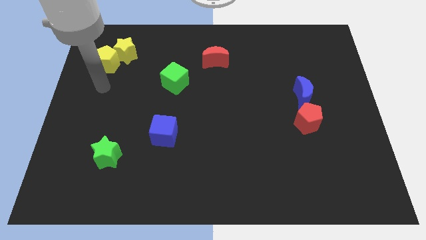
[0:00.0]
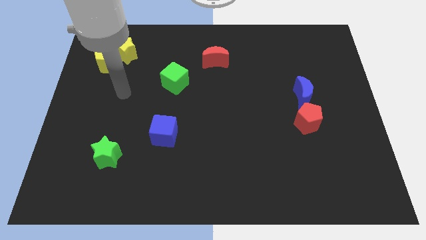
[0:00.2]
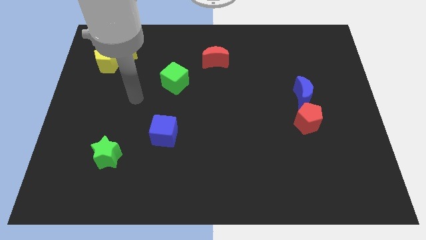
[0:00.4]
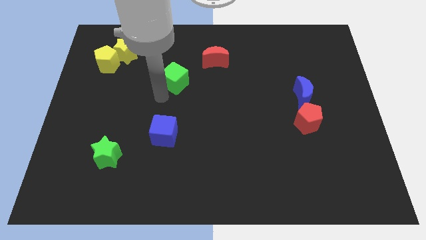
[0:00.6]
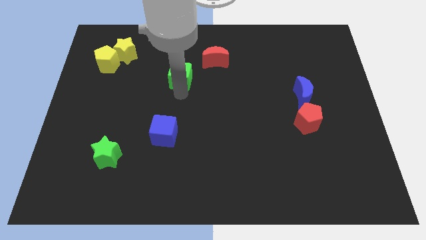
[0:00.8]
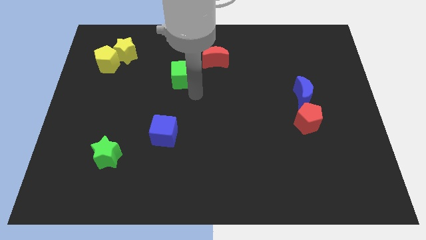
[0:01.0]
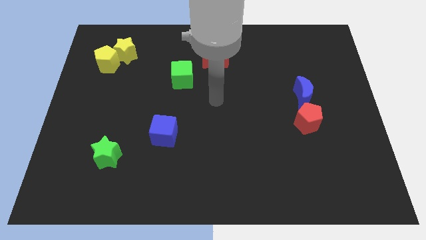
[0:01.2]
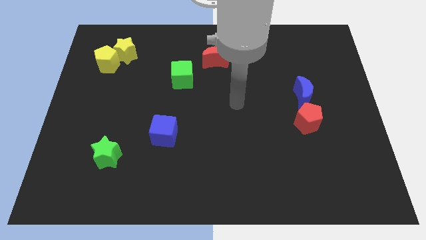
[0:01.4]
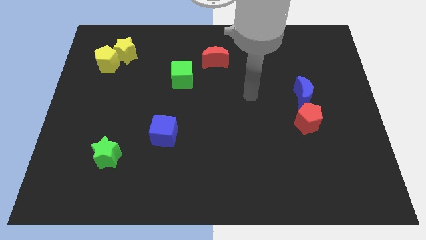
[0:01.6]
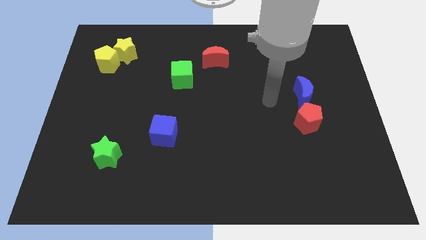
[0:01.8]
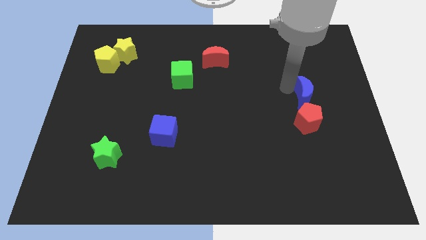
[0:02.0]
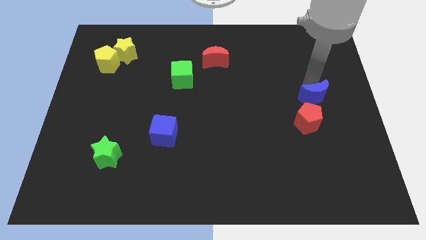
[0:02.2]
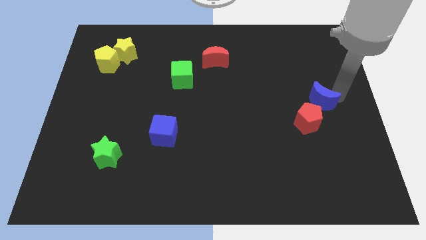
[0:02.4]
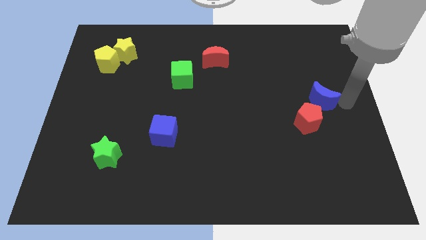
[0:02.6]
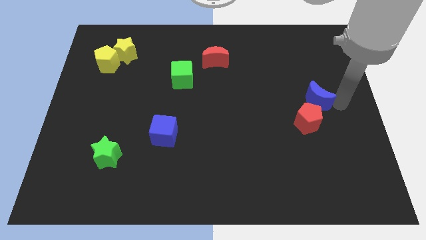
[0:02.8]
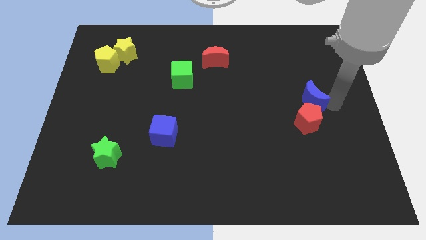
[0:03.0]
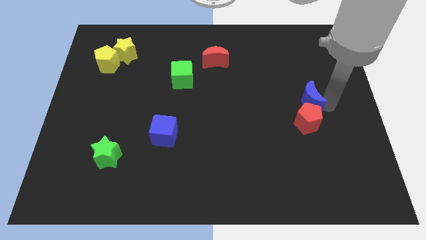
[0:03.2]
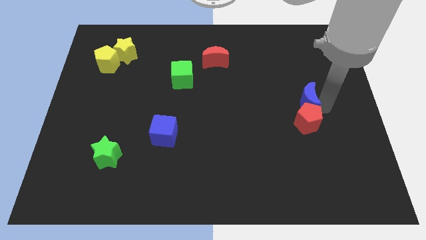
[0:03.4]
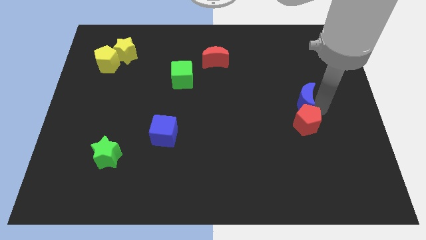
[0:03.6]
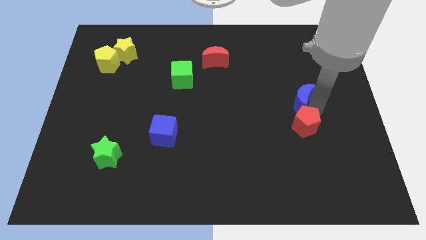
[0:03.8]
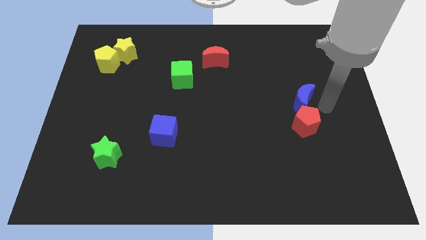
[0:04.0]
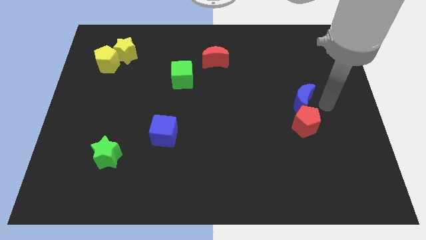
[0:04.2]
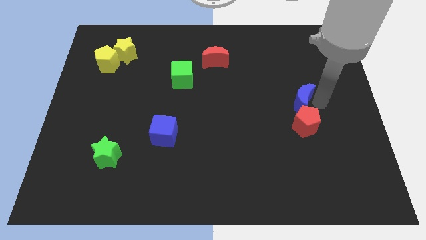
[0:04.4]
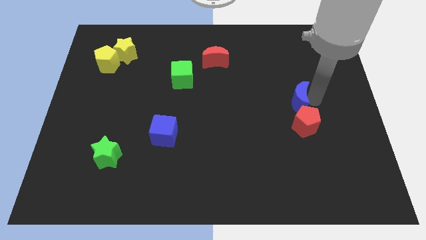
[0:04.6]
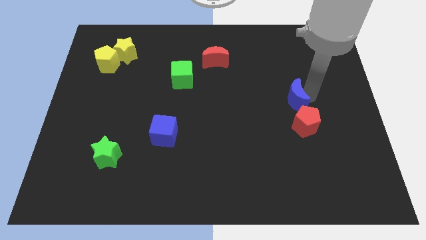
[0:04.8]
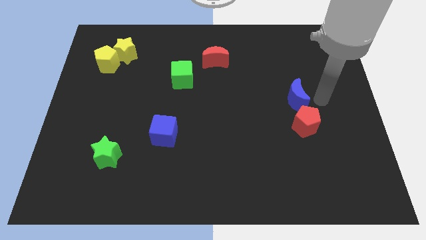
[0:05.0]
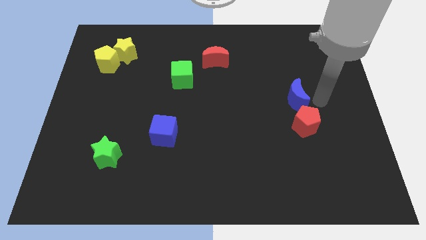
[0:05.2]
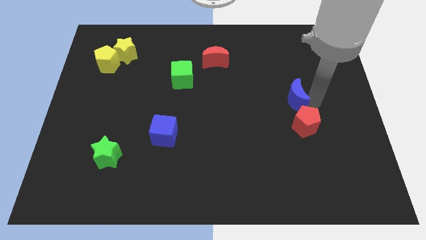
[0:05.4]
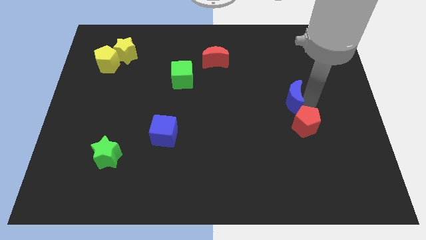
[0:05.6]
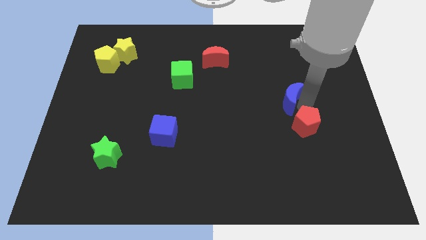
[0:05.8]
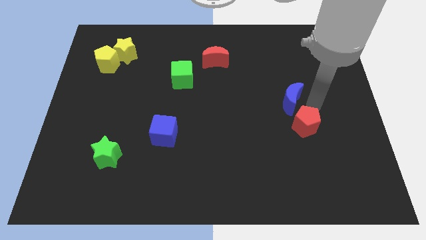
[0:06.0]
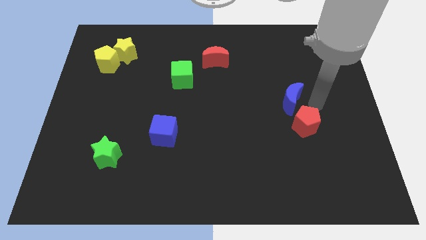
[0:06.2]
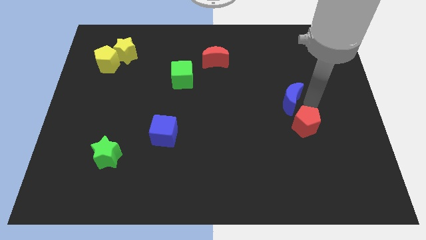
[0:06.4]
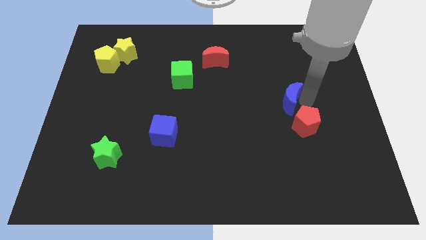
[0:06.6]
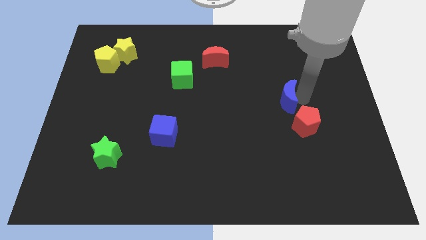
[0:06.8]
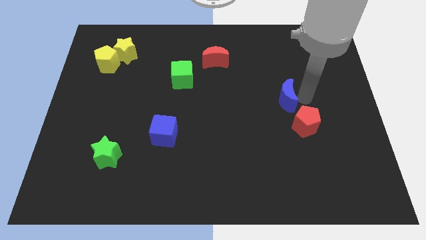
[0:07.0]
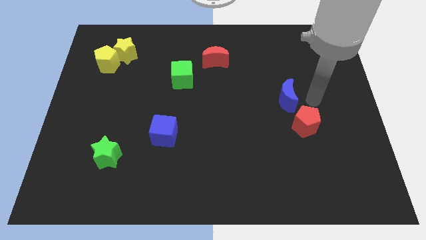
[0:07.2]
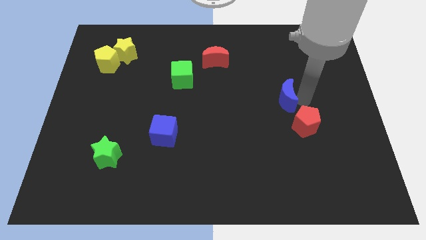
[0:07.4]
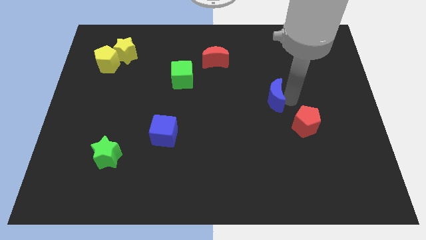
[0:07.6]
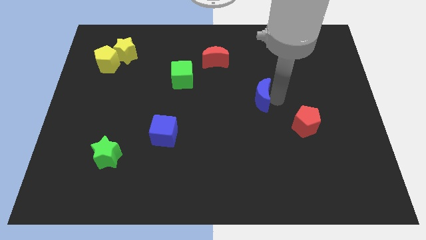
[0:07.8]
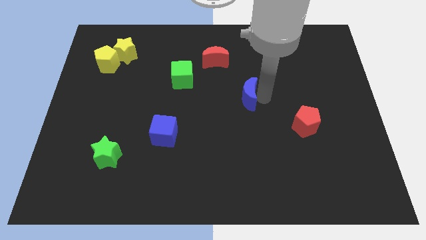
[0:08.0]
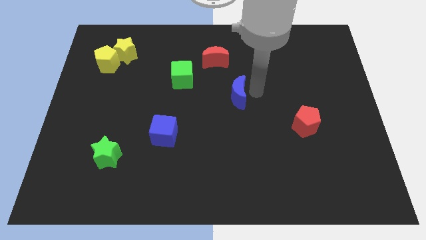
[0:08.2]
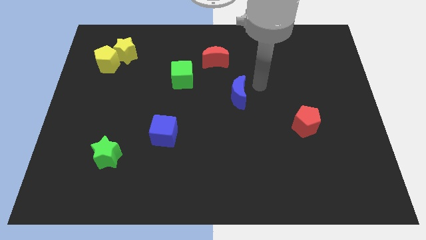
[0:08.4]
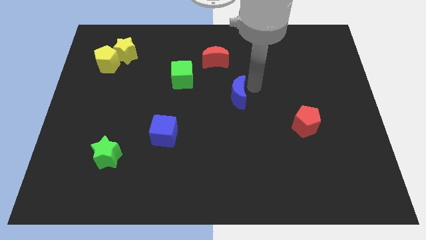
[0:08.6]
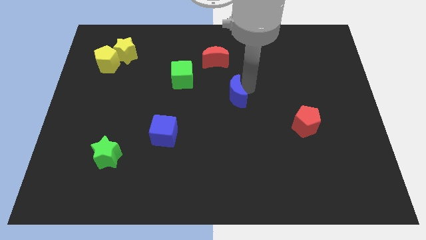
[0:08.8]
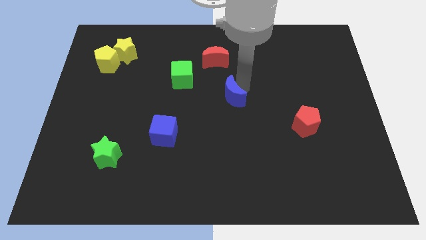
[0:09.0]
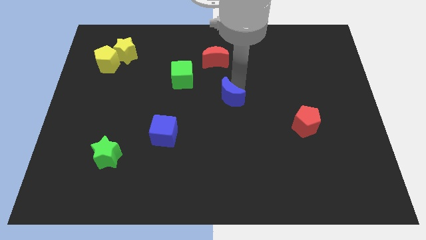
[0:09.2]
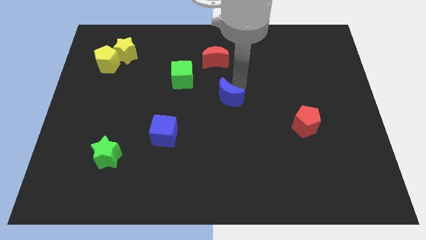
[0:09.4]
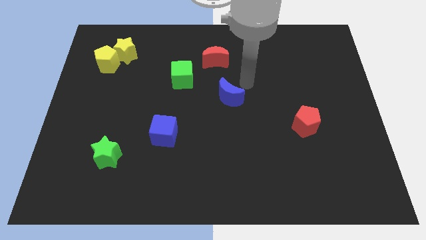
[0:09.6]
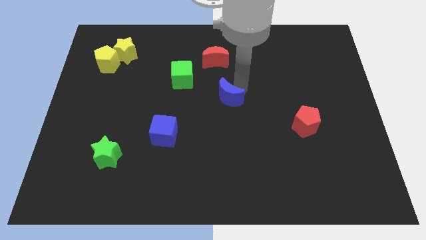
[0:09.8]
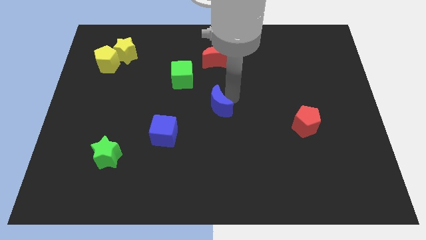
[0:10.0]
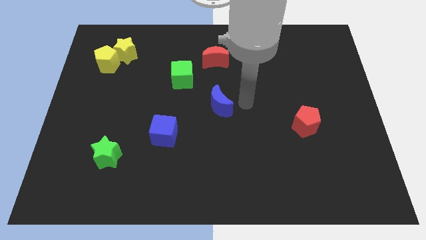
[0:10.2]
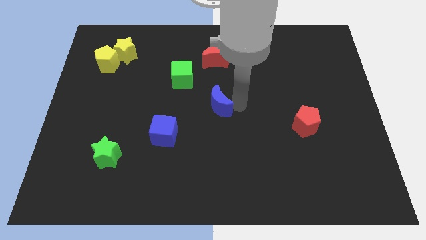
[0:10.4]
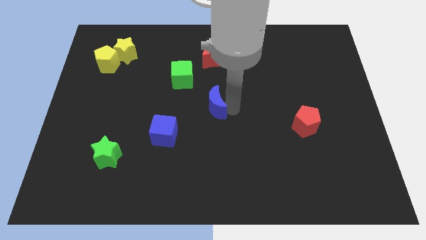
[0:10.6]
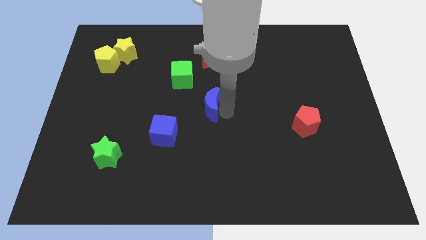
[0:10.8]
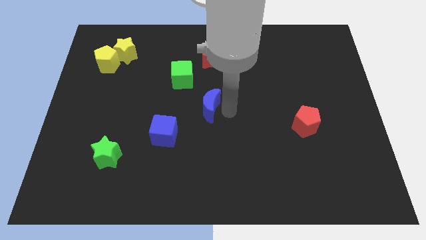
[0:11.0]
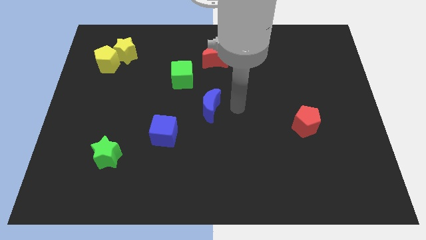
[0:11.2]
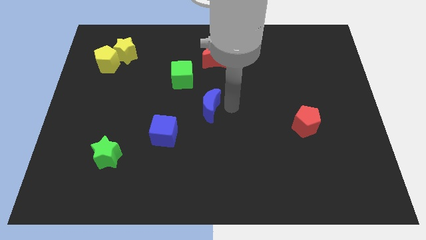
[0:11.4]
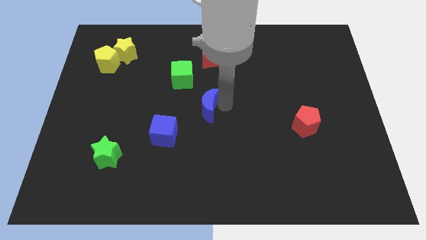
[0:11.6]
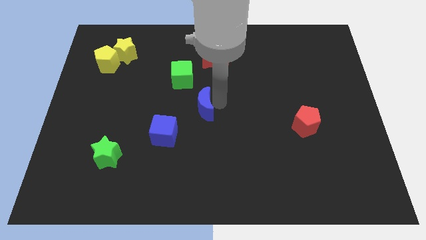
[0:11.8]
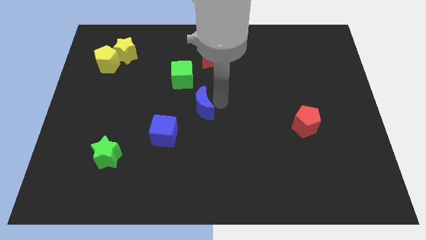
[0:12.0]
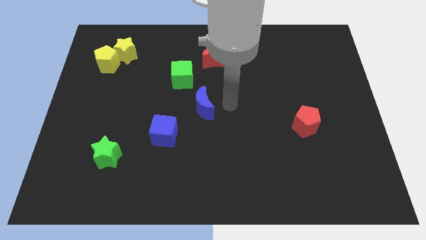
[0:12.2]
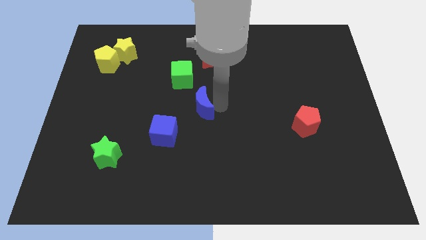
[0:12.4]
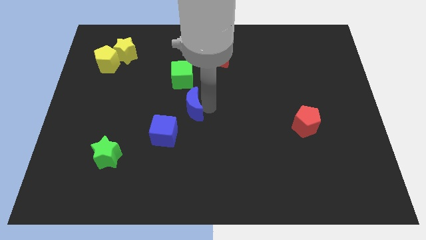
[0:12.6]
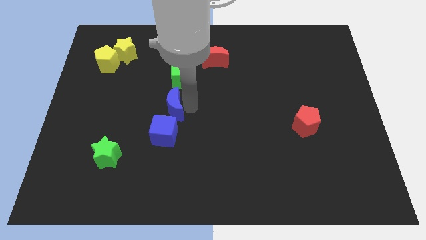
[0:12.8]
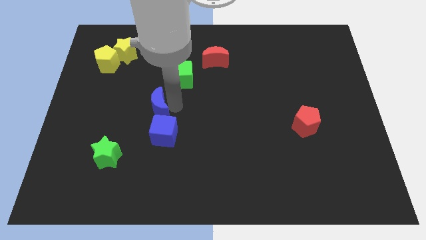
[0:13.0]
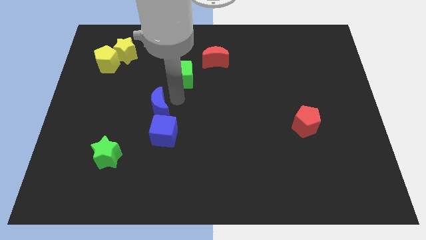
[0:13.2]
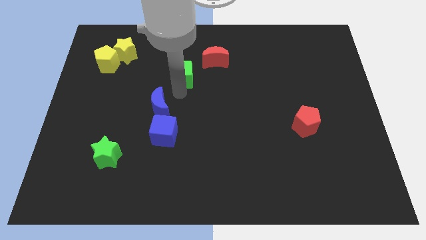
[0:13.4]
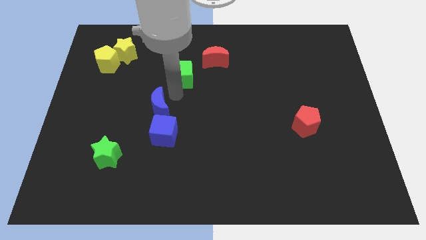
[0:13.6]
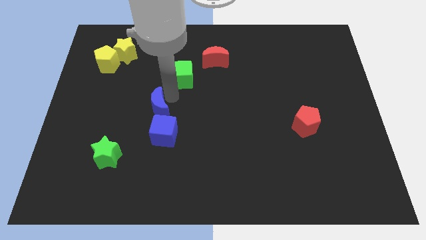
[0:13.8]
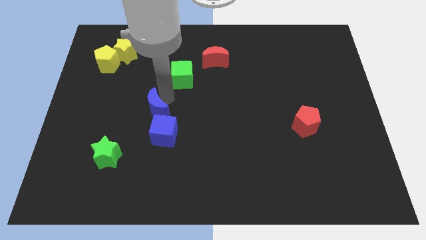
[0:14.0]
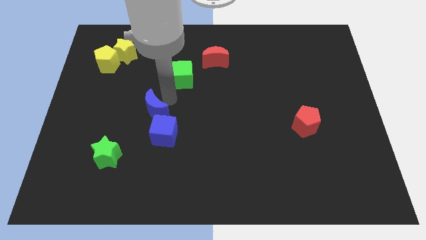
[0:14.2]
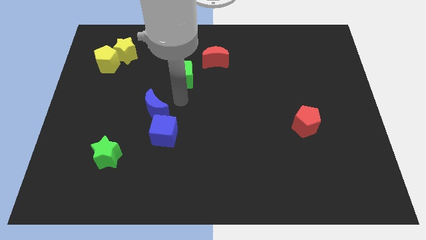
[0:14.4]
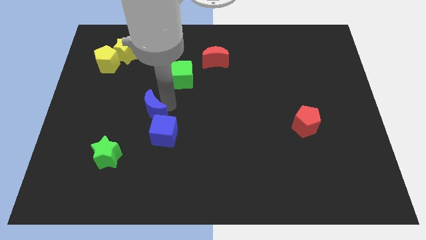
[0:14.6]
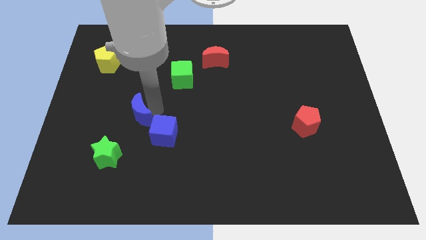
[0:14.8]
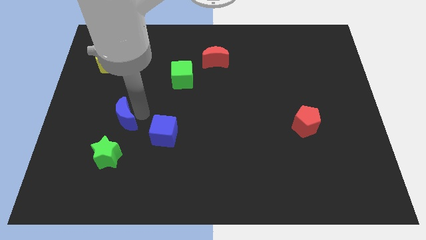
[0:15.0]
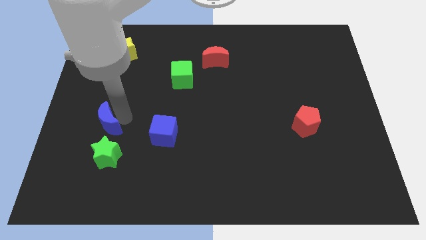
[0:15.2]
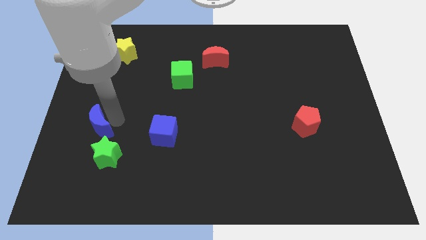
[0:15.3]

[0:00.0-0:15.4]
move the blue moon to the top left side of the green star
